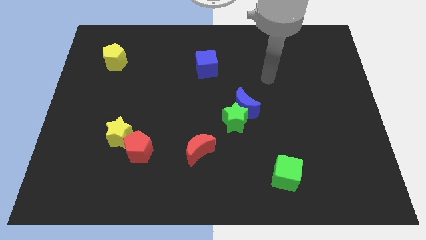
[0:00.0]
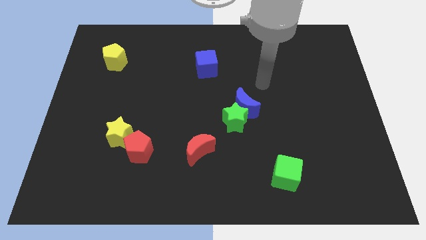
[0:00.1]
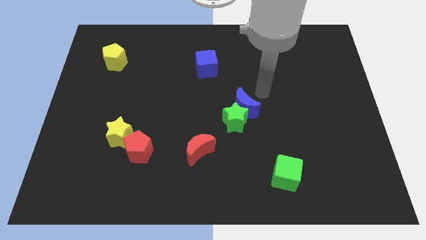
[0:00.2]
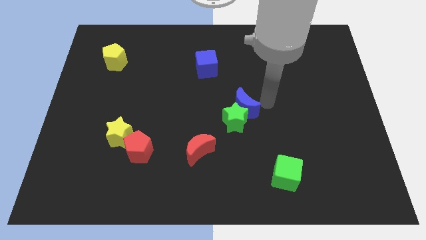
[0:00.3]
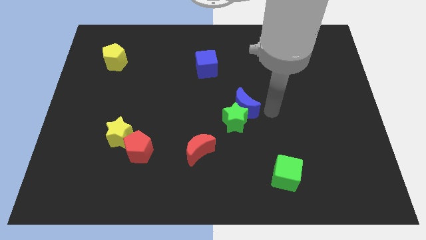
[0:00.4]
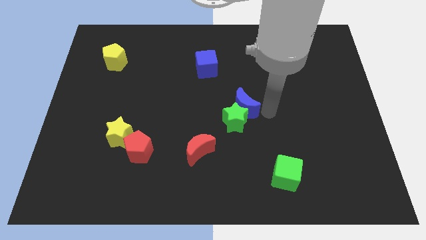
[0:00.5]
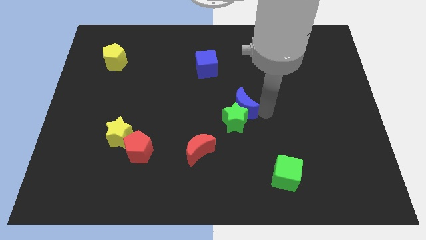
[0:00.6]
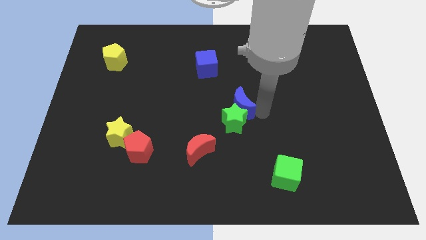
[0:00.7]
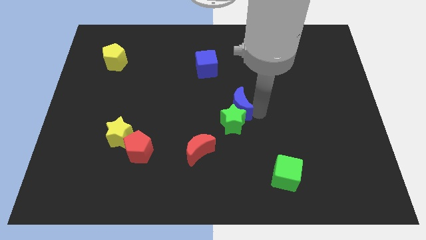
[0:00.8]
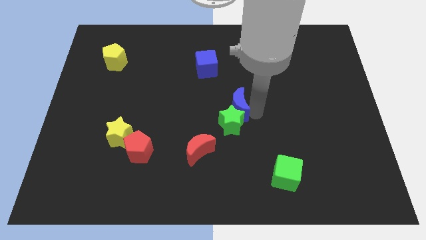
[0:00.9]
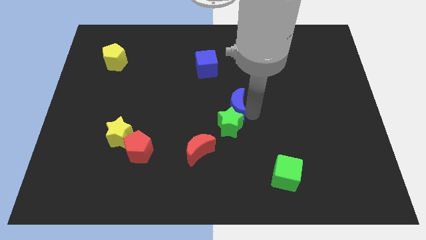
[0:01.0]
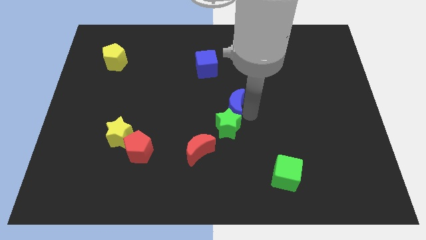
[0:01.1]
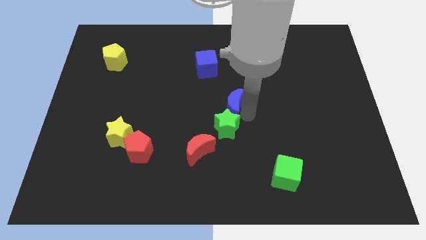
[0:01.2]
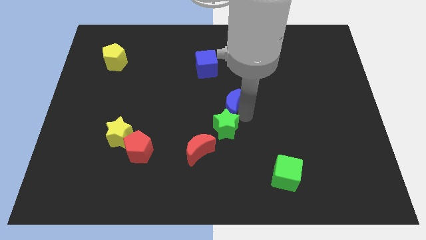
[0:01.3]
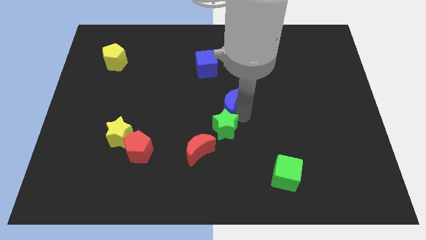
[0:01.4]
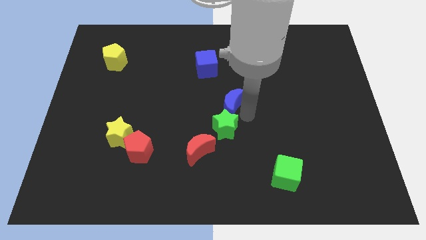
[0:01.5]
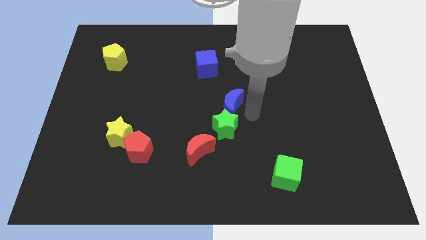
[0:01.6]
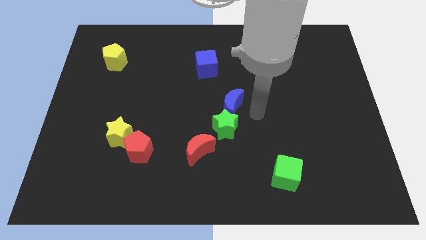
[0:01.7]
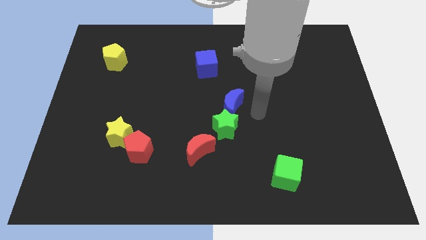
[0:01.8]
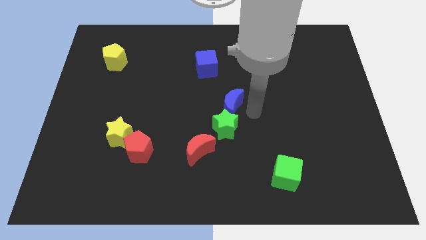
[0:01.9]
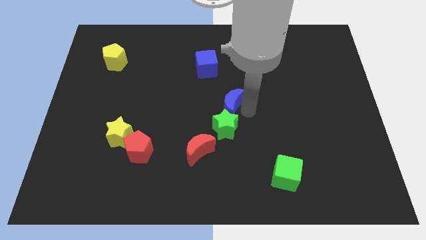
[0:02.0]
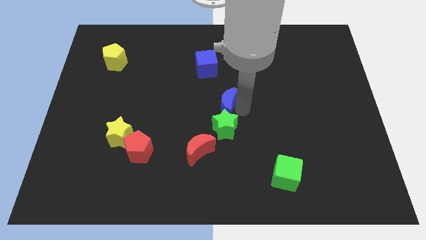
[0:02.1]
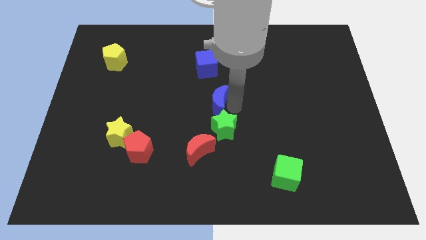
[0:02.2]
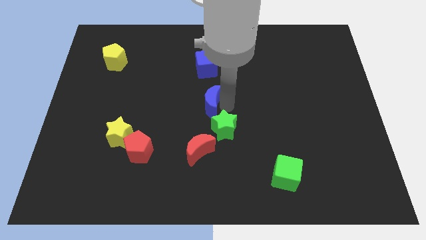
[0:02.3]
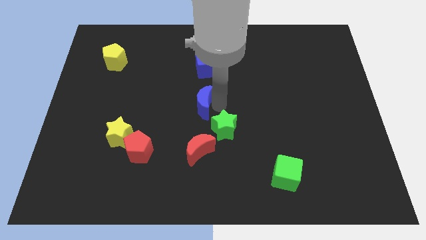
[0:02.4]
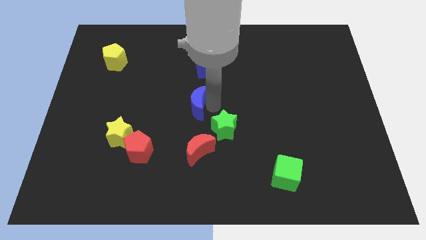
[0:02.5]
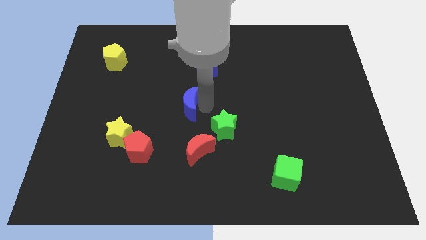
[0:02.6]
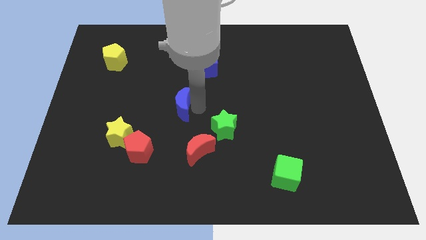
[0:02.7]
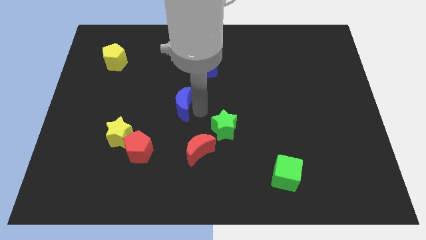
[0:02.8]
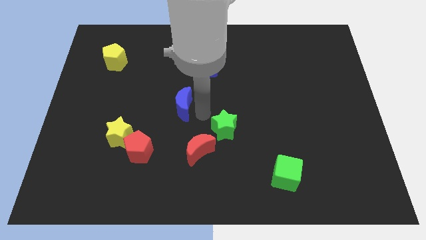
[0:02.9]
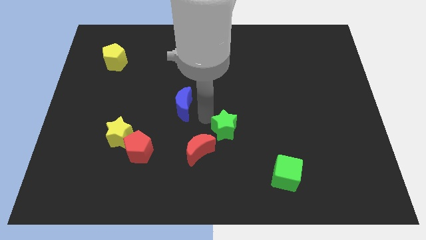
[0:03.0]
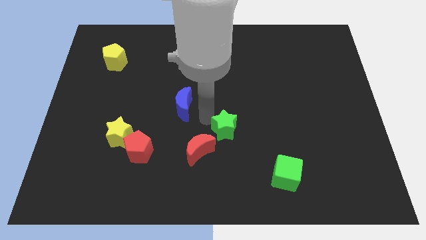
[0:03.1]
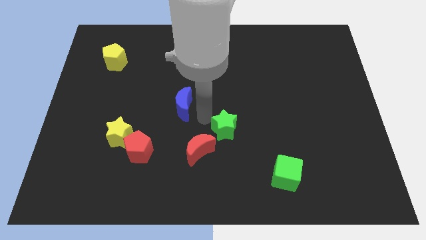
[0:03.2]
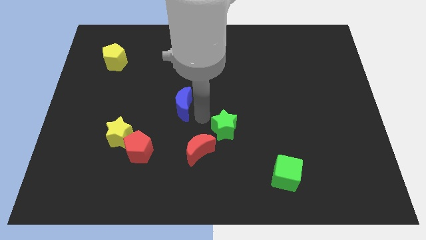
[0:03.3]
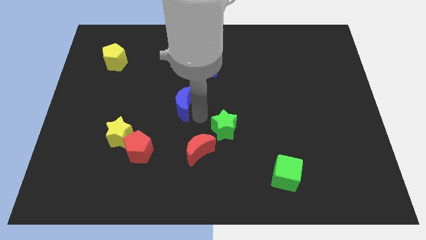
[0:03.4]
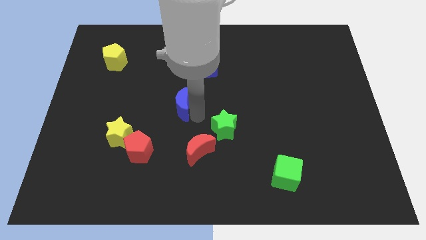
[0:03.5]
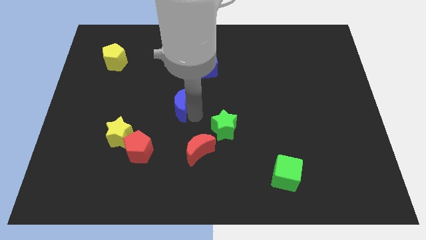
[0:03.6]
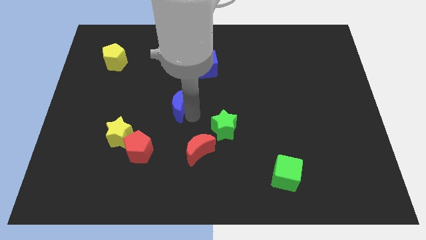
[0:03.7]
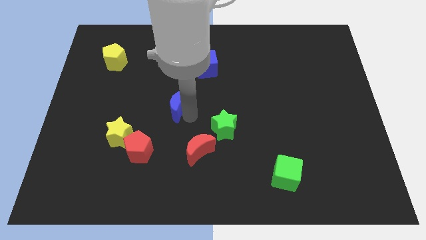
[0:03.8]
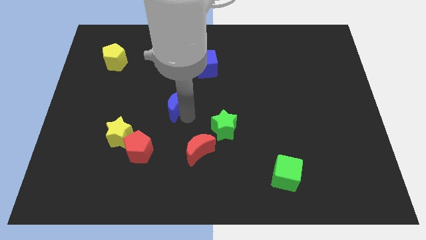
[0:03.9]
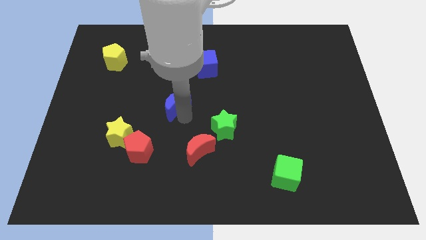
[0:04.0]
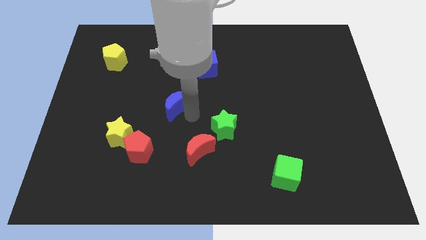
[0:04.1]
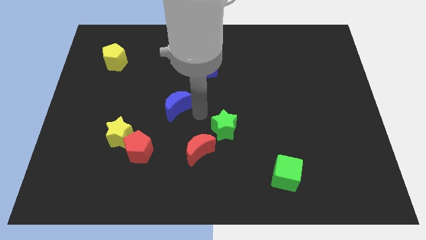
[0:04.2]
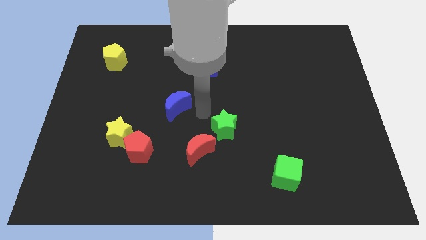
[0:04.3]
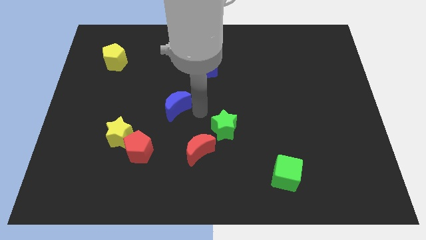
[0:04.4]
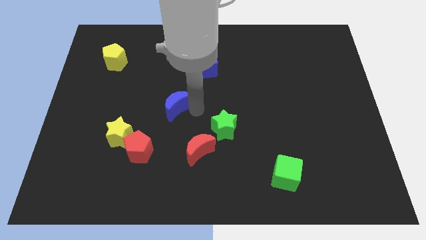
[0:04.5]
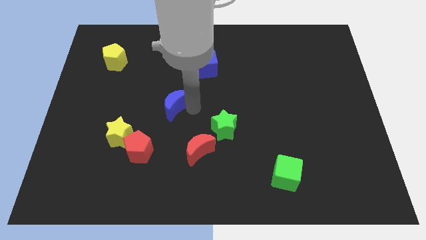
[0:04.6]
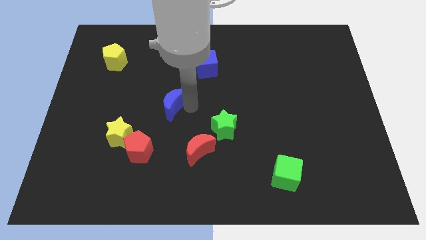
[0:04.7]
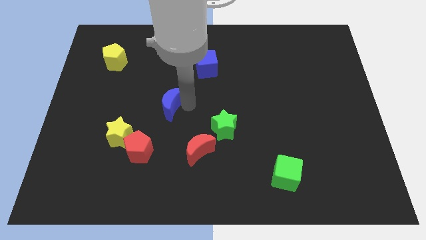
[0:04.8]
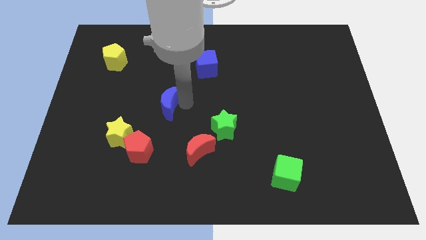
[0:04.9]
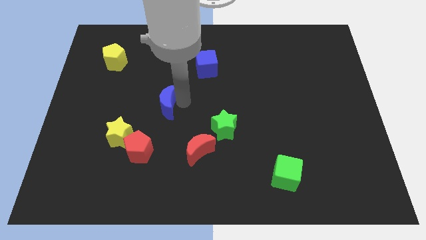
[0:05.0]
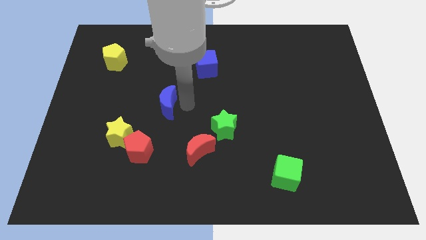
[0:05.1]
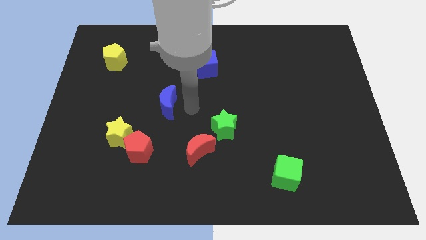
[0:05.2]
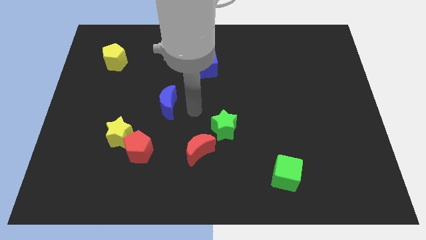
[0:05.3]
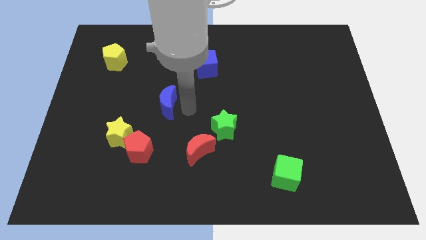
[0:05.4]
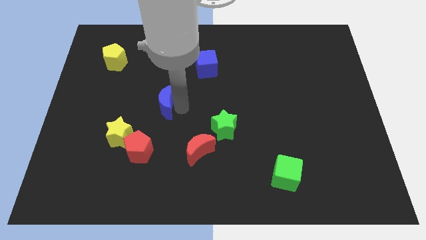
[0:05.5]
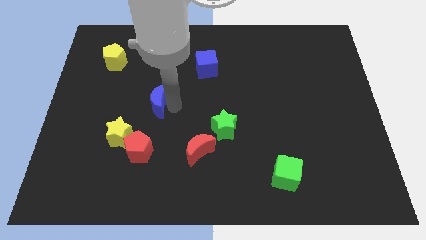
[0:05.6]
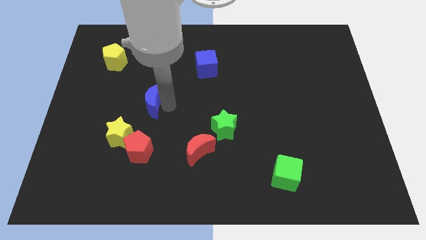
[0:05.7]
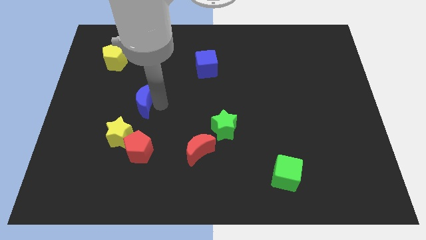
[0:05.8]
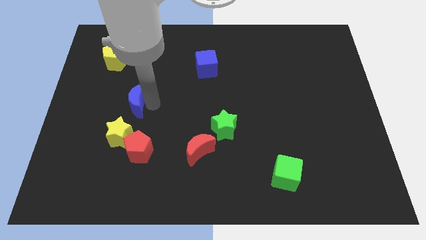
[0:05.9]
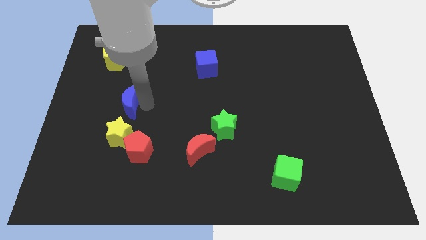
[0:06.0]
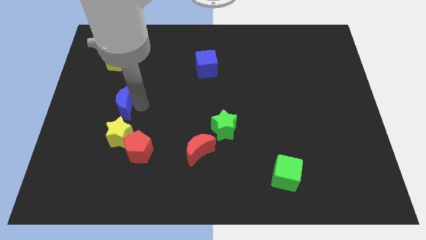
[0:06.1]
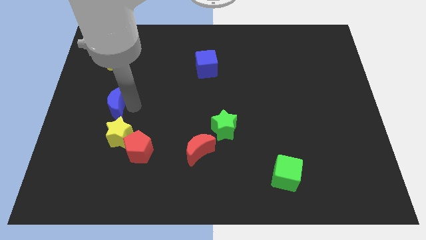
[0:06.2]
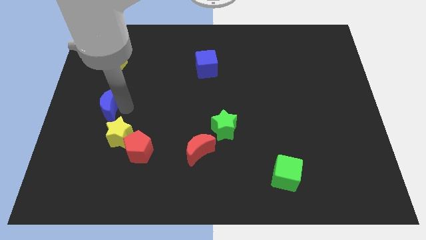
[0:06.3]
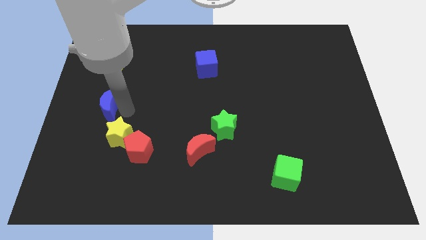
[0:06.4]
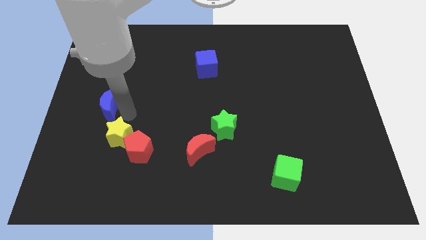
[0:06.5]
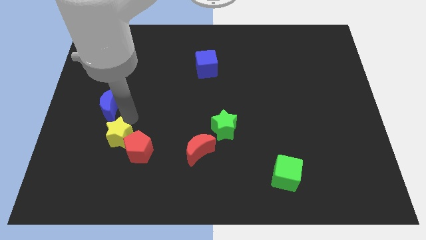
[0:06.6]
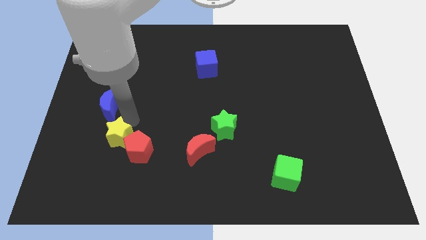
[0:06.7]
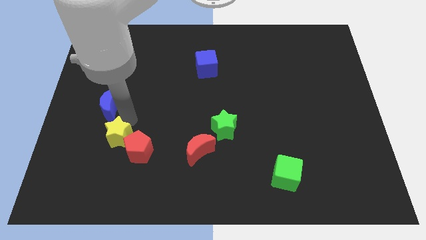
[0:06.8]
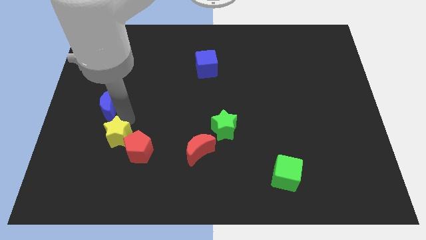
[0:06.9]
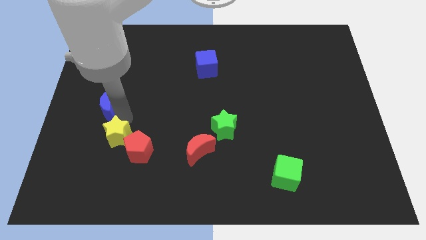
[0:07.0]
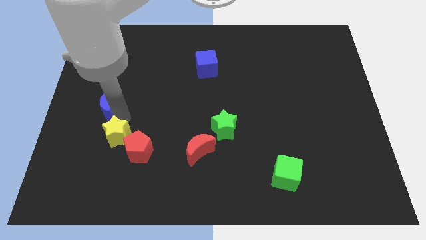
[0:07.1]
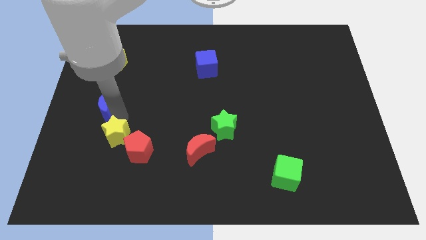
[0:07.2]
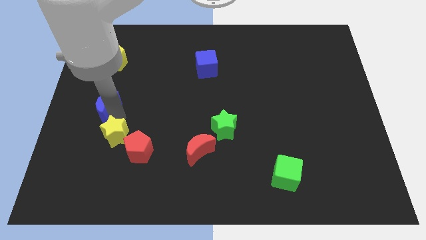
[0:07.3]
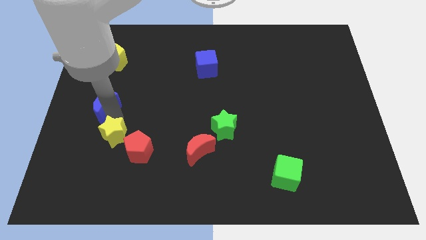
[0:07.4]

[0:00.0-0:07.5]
put the blue moon to the left side of the board
